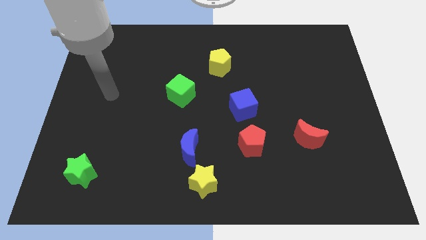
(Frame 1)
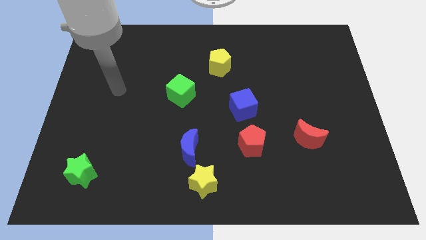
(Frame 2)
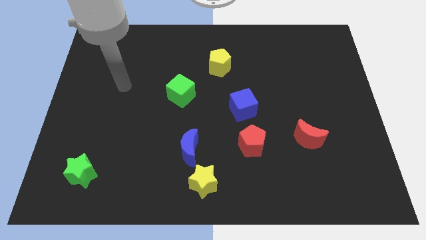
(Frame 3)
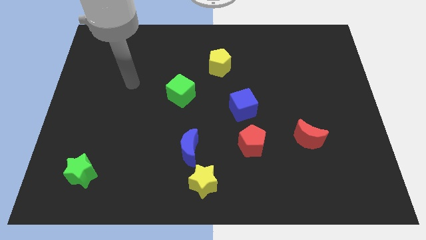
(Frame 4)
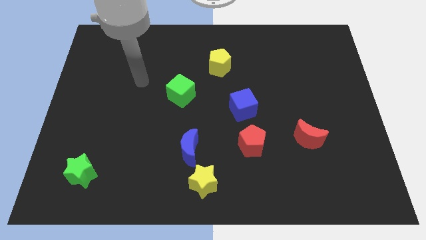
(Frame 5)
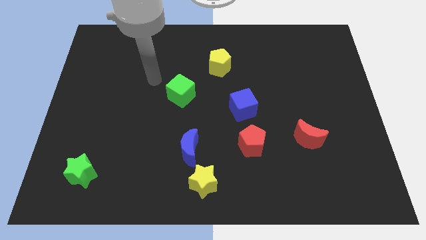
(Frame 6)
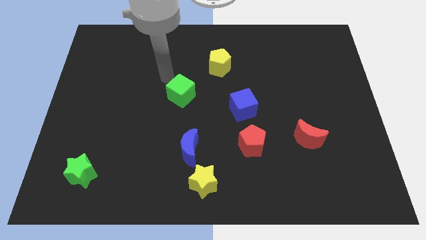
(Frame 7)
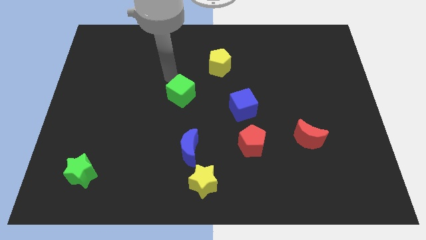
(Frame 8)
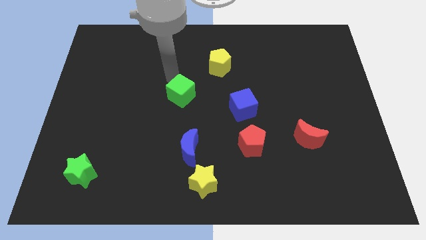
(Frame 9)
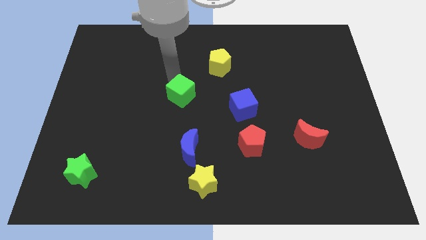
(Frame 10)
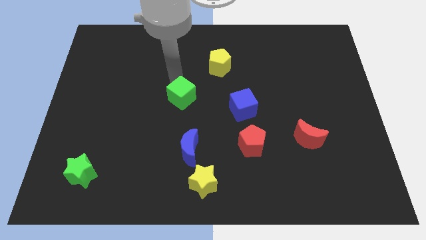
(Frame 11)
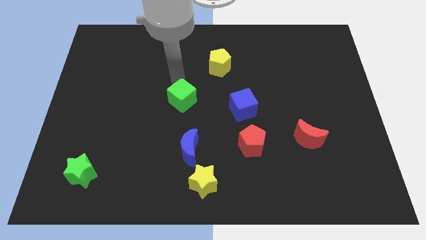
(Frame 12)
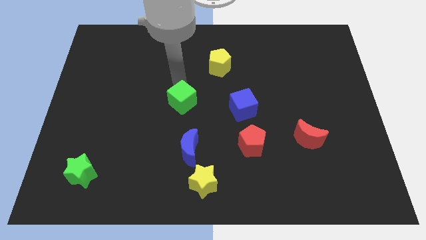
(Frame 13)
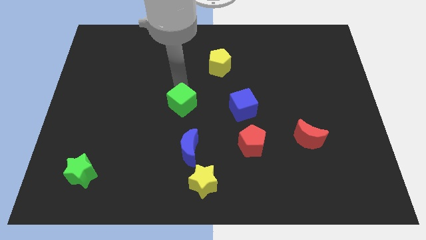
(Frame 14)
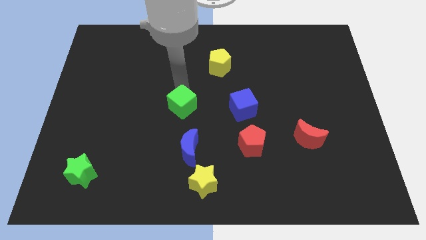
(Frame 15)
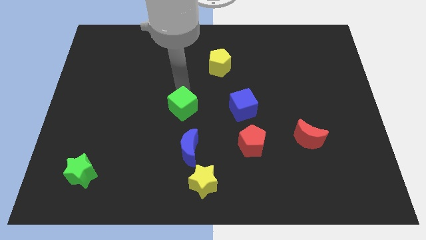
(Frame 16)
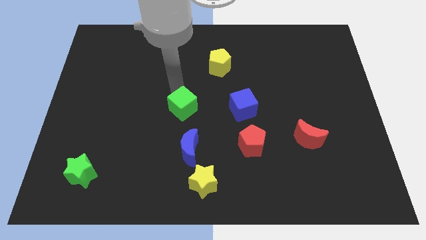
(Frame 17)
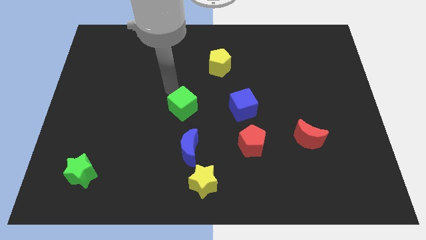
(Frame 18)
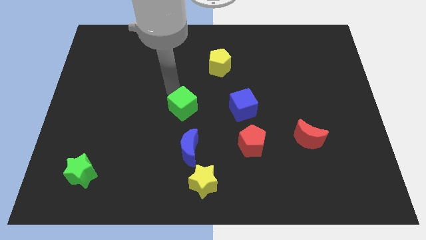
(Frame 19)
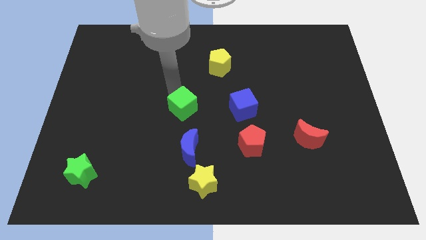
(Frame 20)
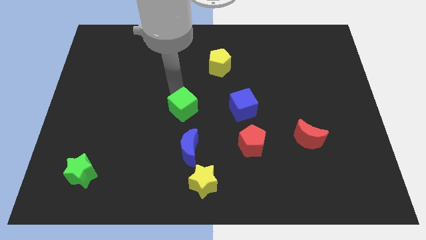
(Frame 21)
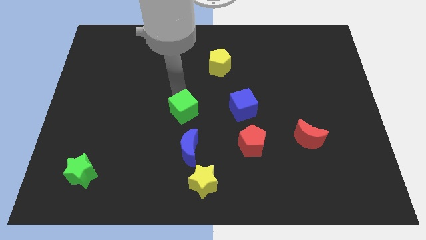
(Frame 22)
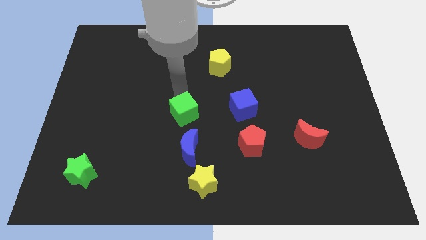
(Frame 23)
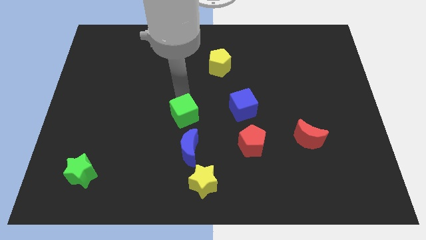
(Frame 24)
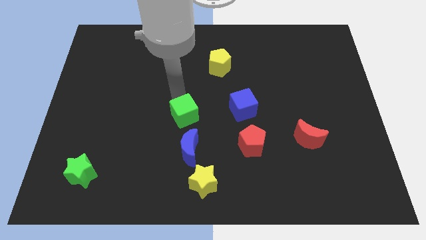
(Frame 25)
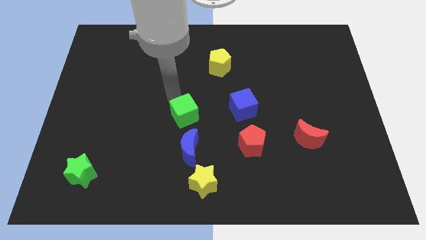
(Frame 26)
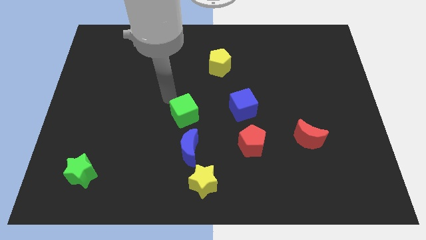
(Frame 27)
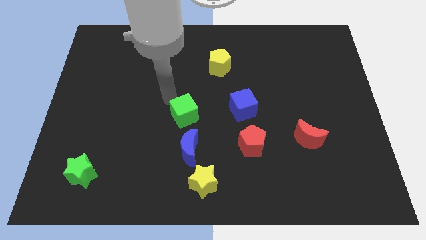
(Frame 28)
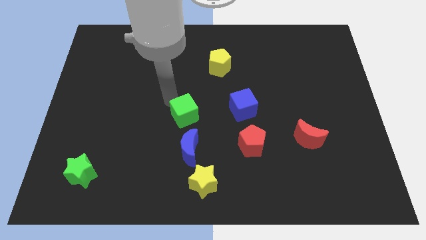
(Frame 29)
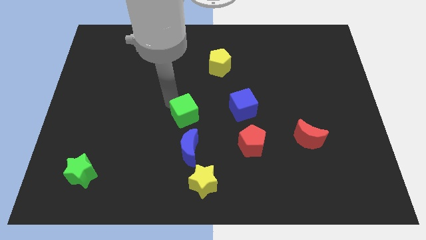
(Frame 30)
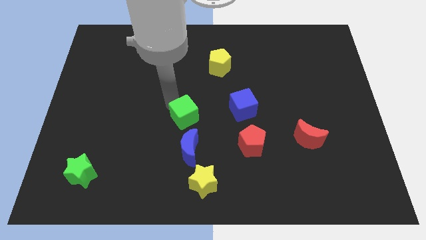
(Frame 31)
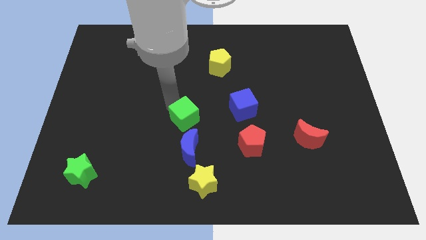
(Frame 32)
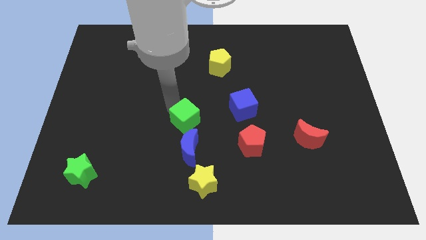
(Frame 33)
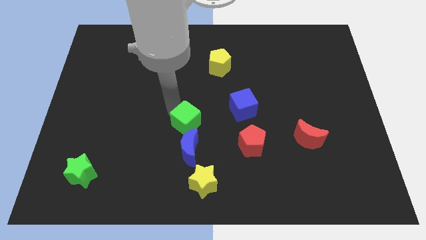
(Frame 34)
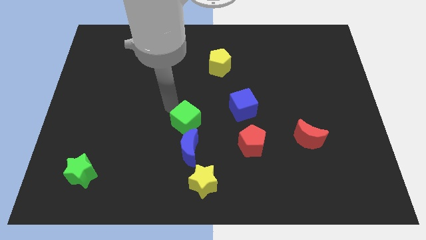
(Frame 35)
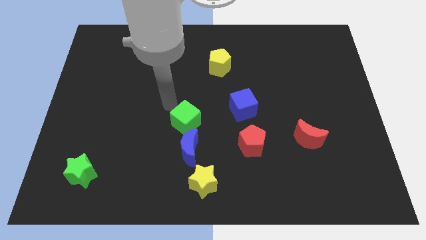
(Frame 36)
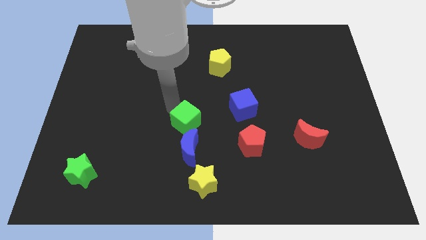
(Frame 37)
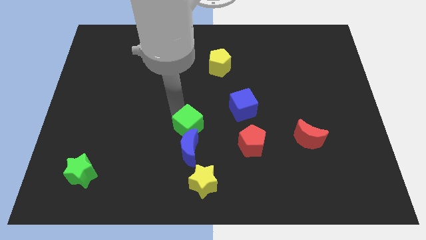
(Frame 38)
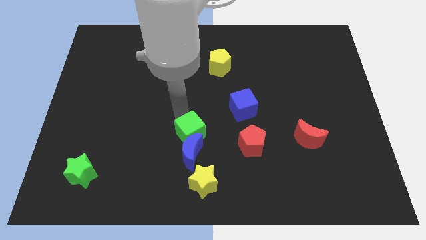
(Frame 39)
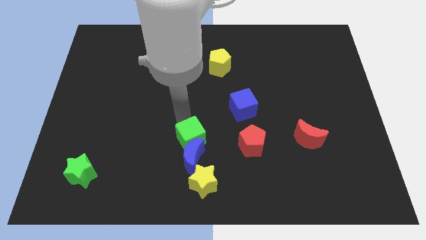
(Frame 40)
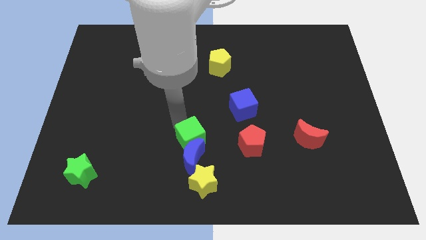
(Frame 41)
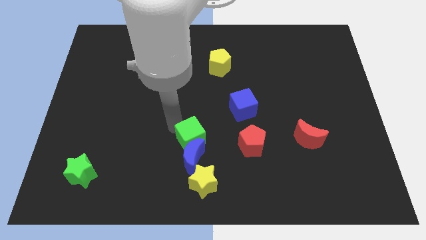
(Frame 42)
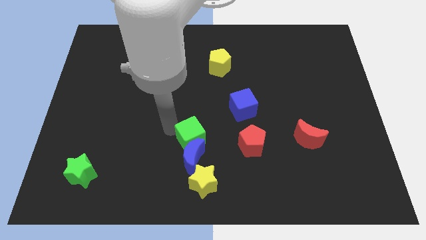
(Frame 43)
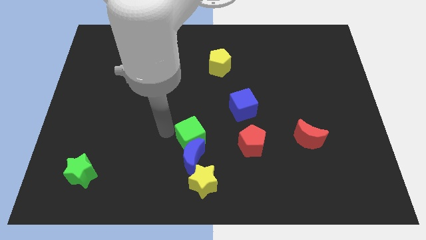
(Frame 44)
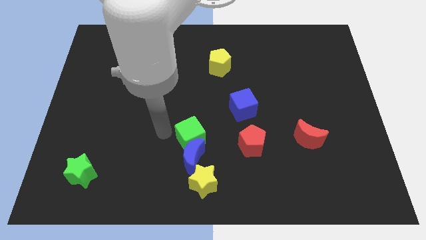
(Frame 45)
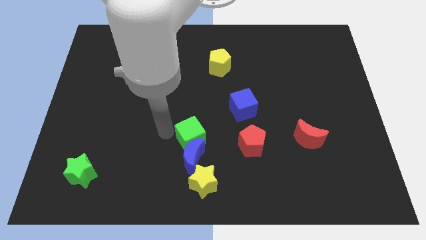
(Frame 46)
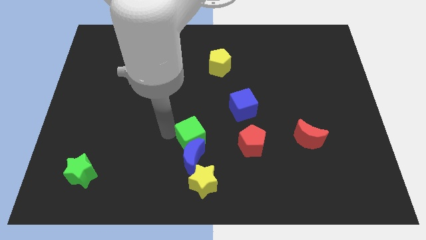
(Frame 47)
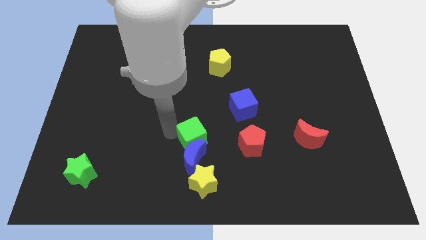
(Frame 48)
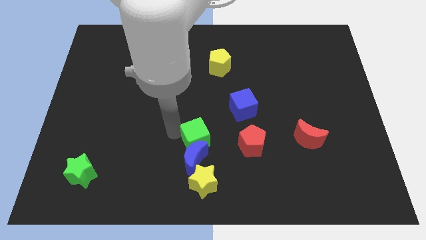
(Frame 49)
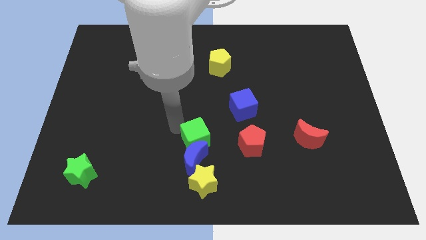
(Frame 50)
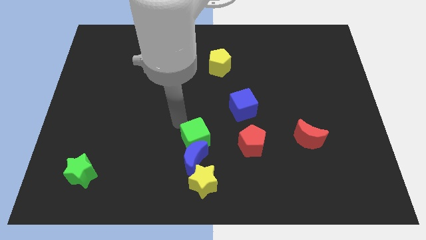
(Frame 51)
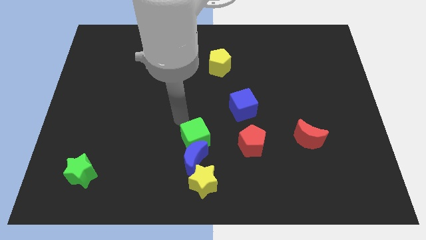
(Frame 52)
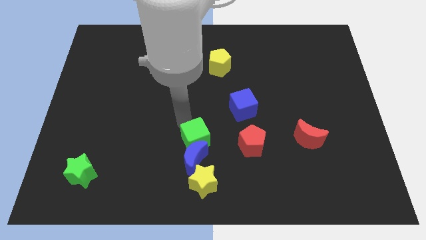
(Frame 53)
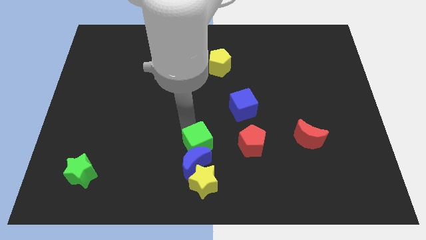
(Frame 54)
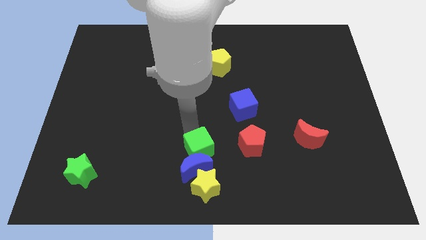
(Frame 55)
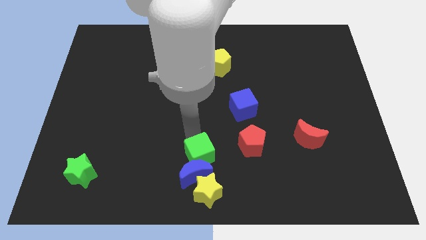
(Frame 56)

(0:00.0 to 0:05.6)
put the green cube to the bottom side

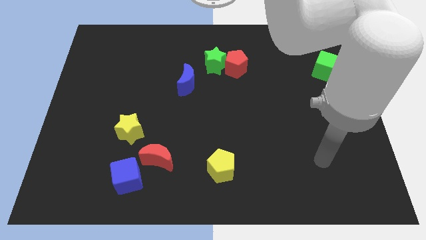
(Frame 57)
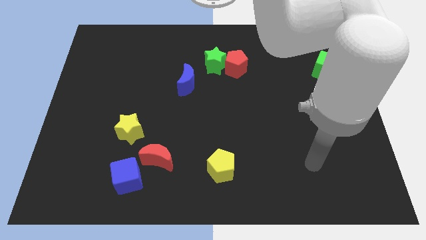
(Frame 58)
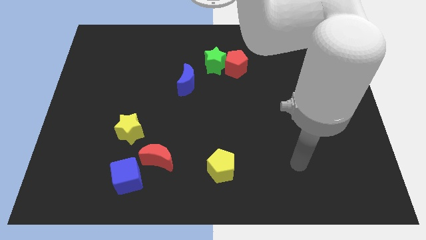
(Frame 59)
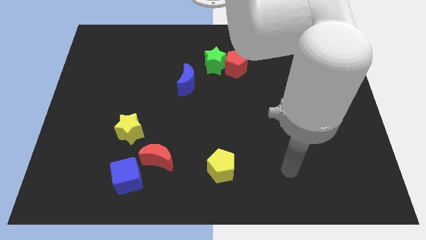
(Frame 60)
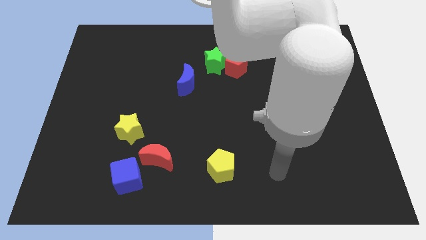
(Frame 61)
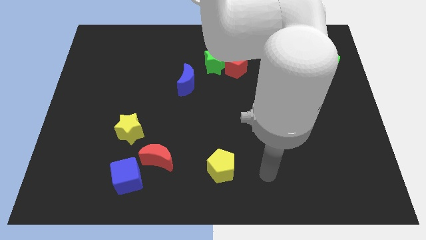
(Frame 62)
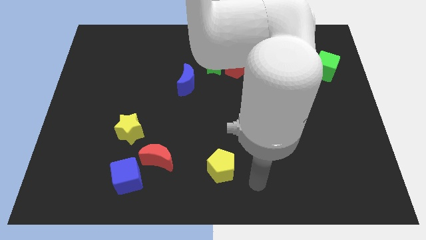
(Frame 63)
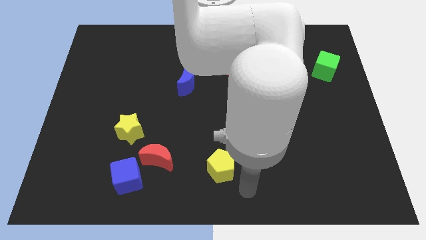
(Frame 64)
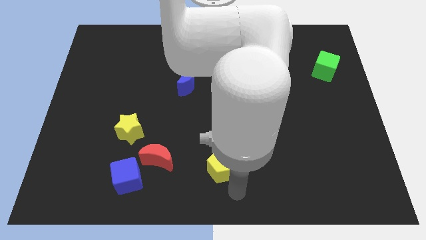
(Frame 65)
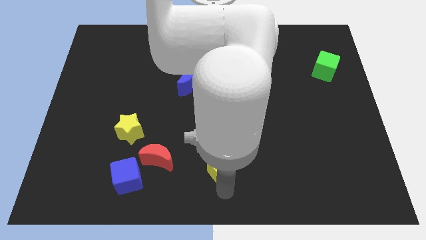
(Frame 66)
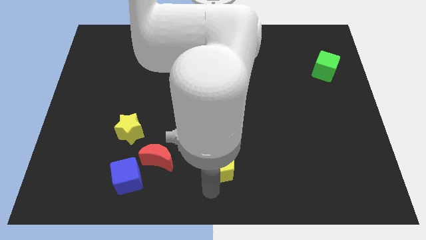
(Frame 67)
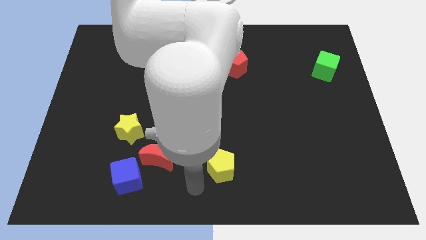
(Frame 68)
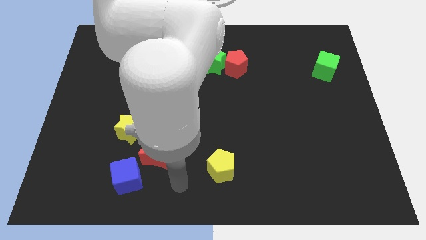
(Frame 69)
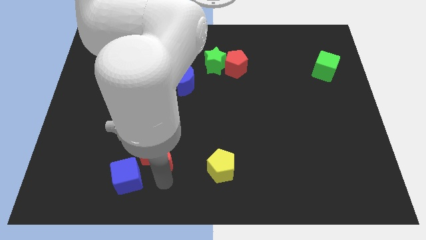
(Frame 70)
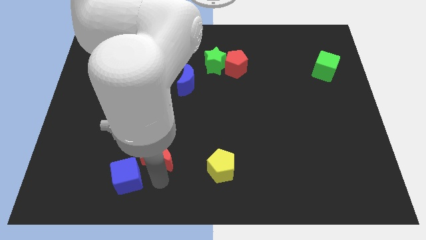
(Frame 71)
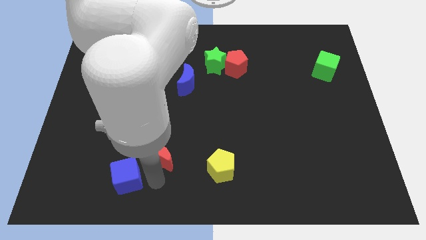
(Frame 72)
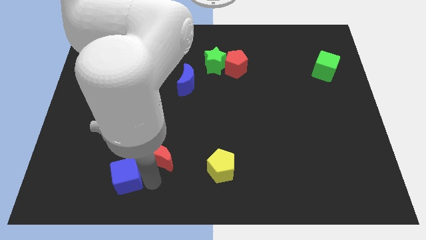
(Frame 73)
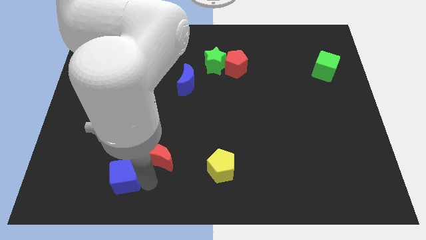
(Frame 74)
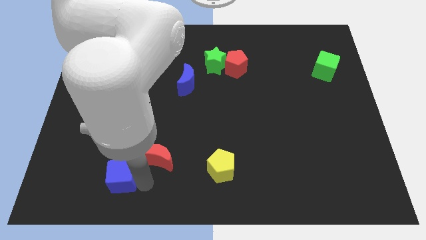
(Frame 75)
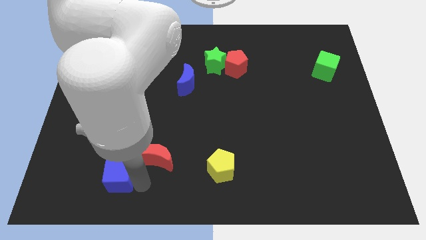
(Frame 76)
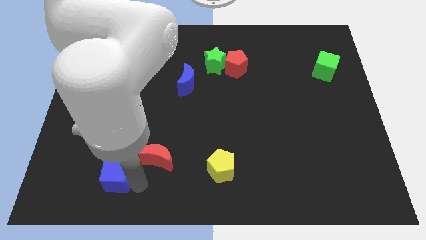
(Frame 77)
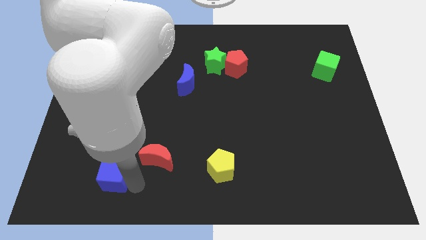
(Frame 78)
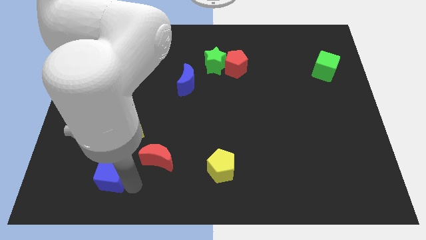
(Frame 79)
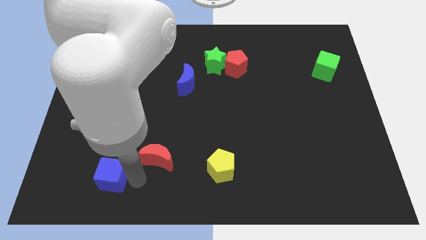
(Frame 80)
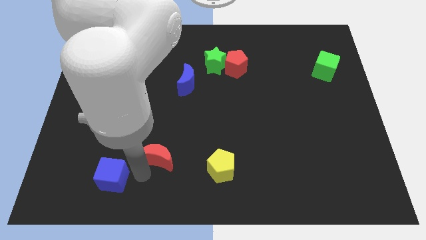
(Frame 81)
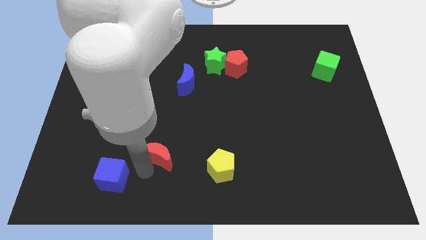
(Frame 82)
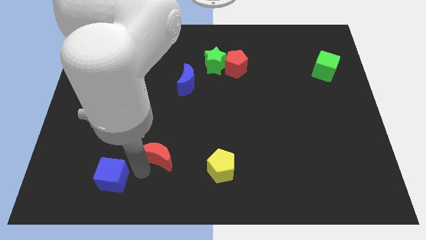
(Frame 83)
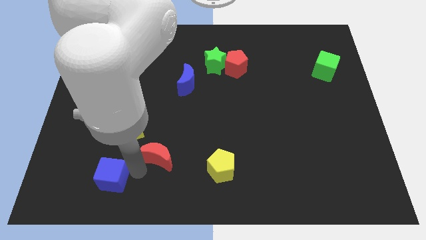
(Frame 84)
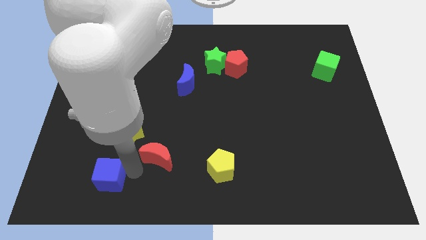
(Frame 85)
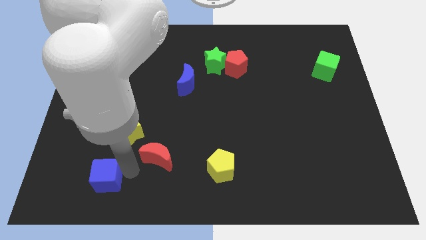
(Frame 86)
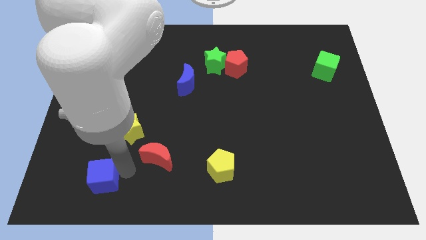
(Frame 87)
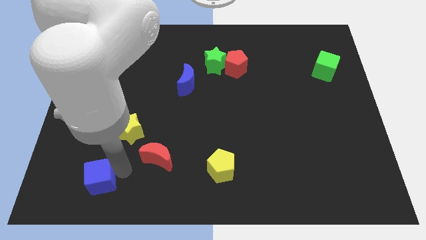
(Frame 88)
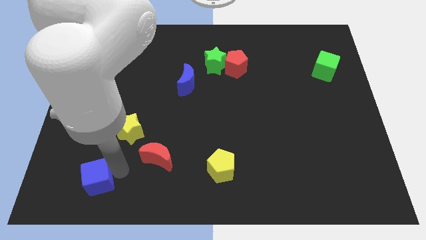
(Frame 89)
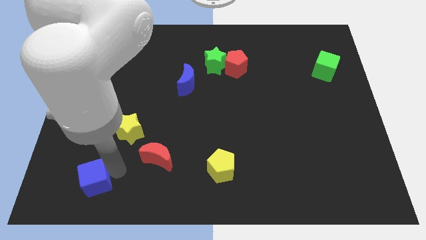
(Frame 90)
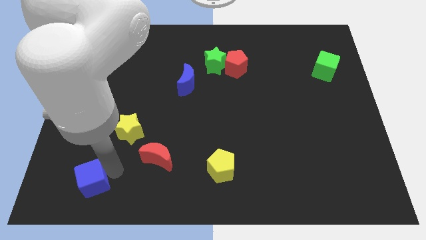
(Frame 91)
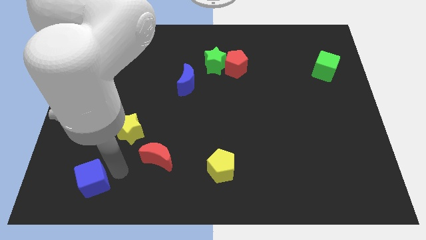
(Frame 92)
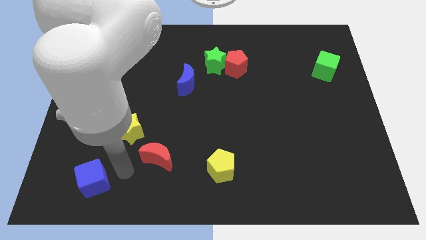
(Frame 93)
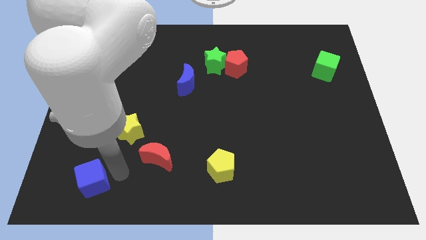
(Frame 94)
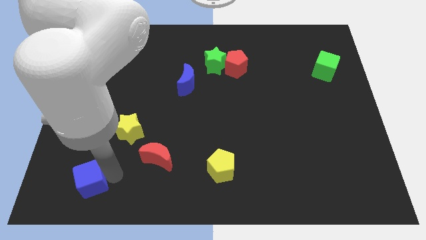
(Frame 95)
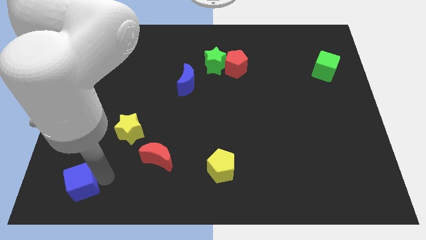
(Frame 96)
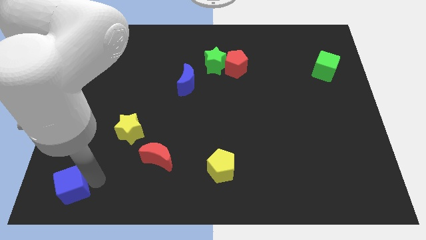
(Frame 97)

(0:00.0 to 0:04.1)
put the blue cube to the bottom left of the board
